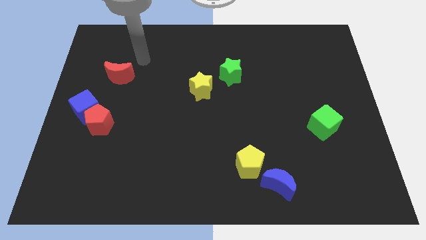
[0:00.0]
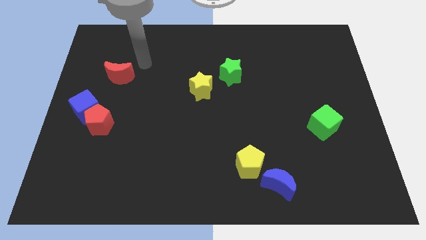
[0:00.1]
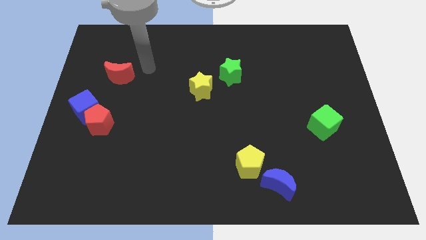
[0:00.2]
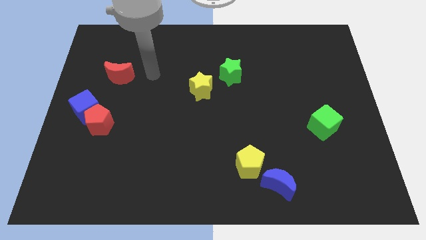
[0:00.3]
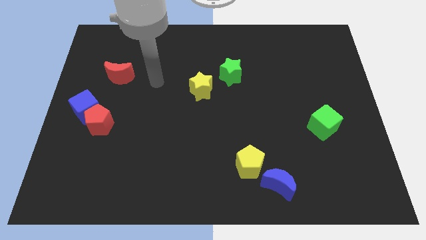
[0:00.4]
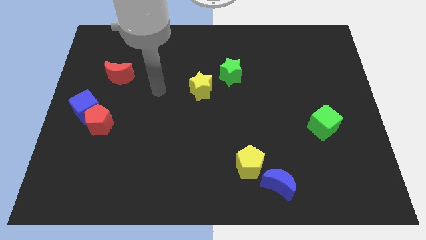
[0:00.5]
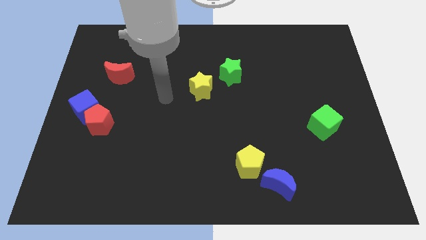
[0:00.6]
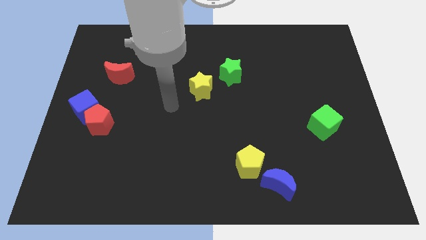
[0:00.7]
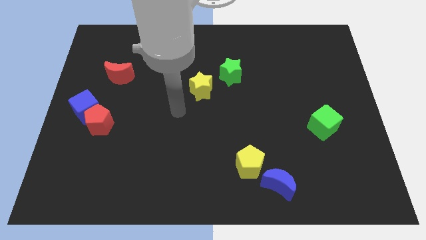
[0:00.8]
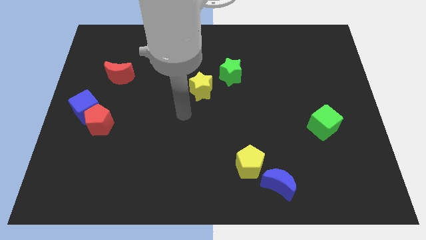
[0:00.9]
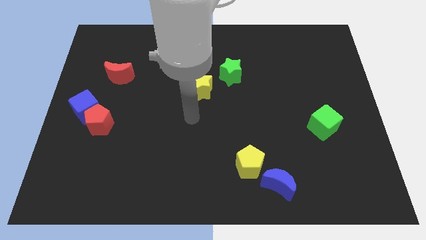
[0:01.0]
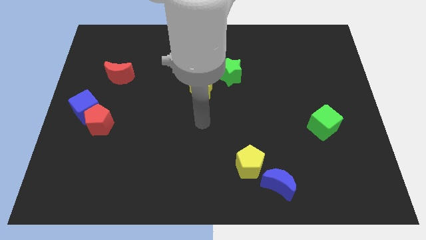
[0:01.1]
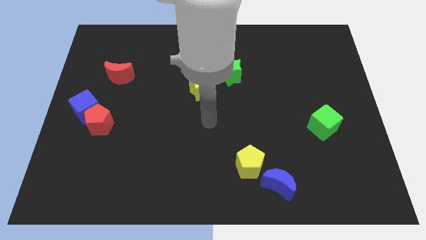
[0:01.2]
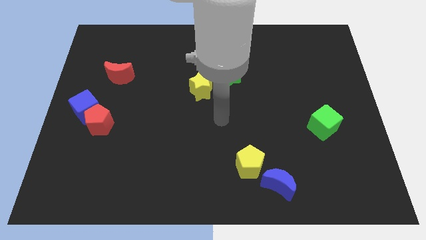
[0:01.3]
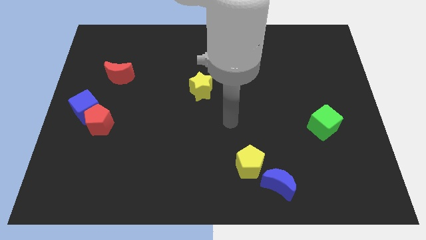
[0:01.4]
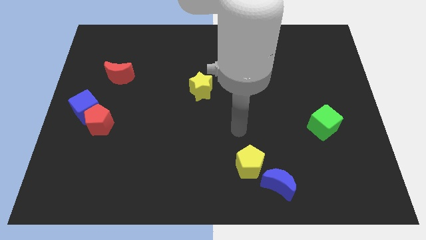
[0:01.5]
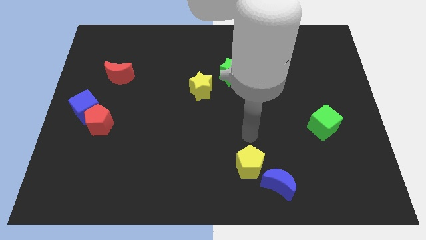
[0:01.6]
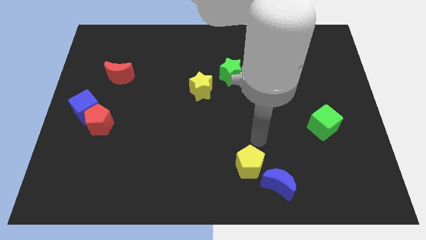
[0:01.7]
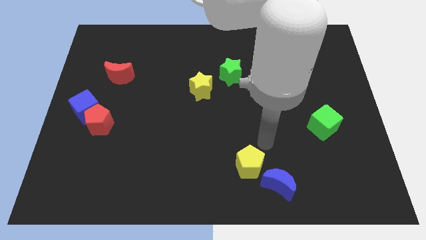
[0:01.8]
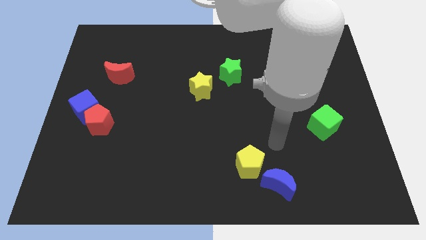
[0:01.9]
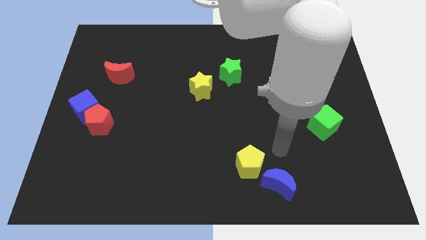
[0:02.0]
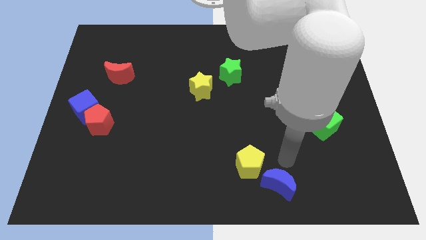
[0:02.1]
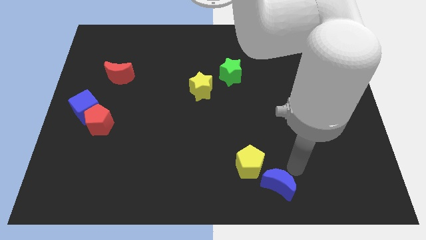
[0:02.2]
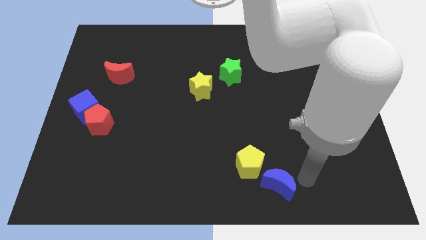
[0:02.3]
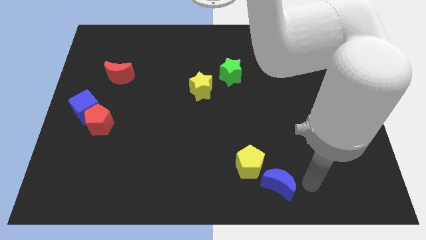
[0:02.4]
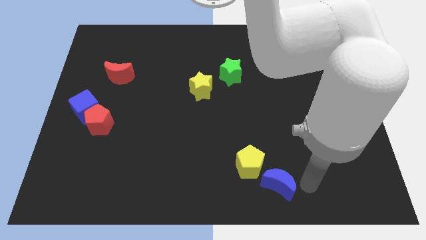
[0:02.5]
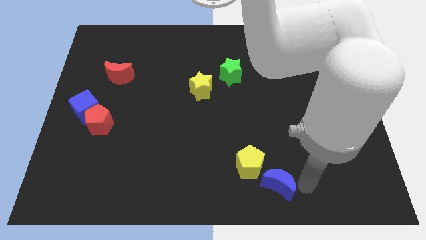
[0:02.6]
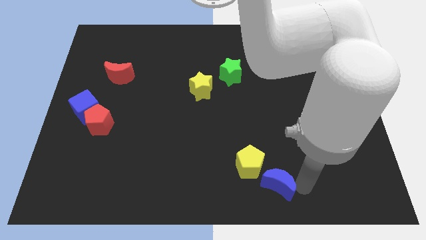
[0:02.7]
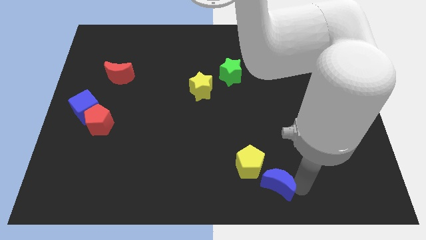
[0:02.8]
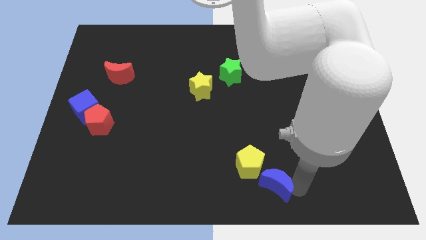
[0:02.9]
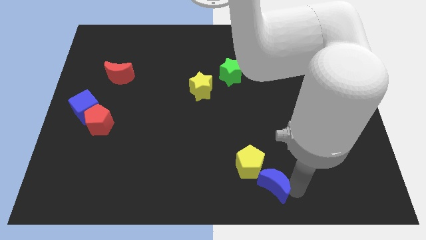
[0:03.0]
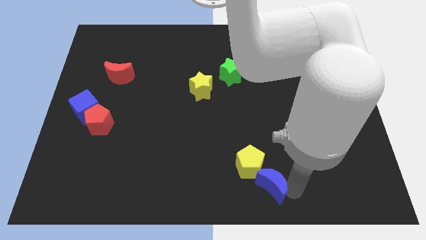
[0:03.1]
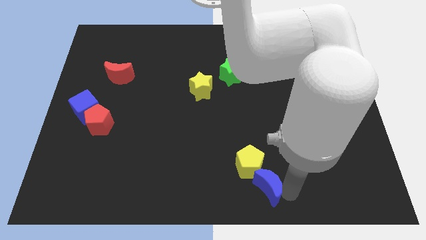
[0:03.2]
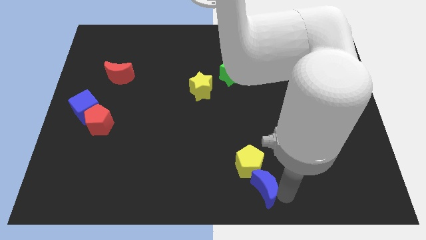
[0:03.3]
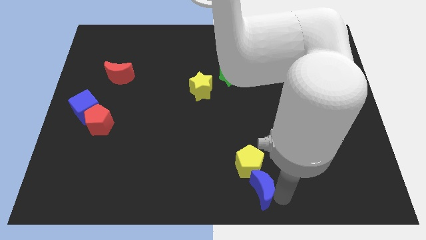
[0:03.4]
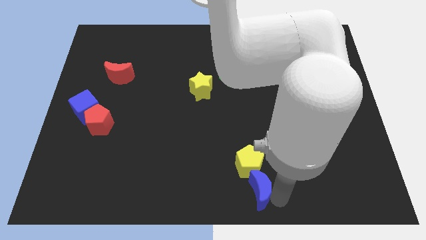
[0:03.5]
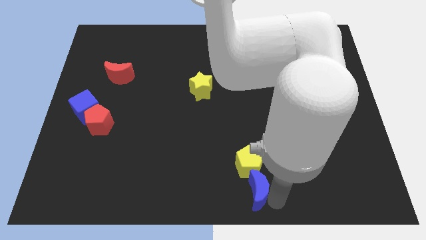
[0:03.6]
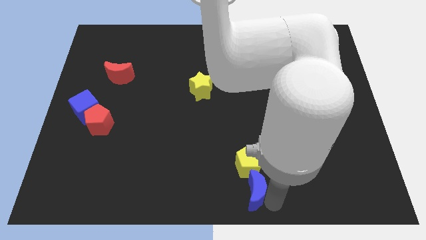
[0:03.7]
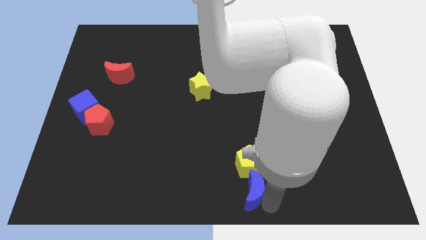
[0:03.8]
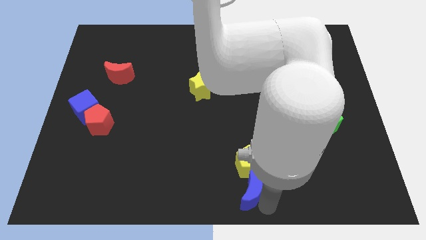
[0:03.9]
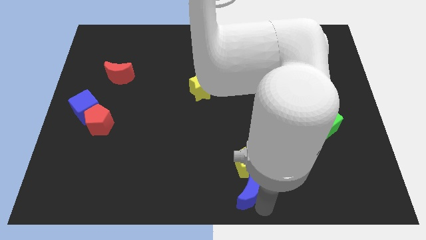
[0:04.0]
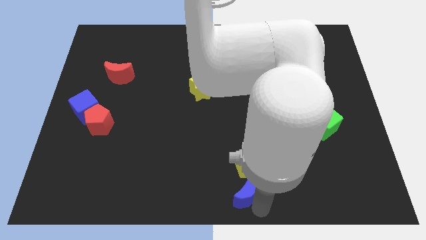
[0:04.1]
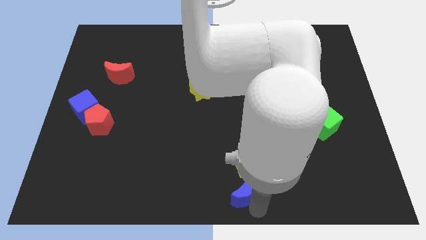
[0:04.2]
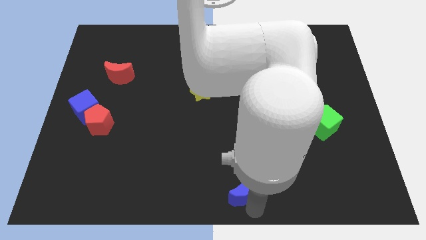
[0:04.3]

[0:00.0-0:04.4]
push the blue moon somewhat left

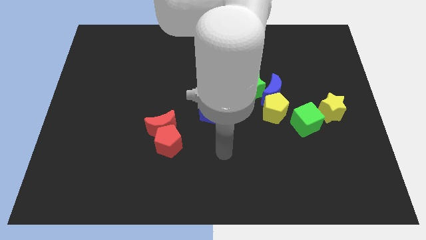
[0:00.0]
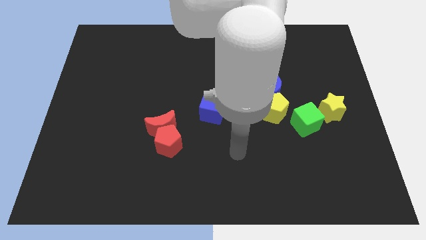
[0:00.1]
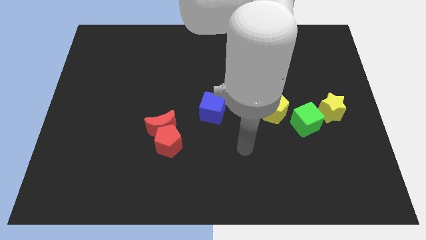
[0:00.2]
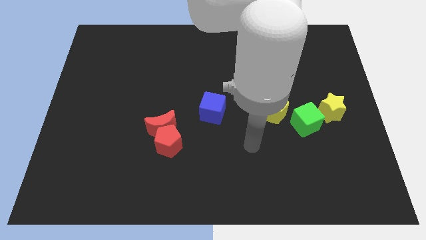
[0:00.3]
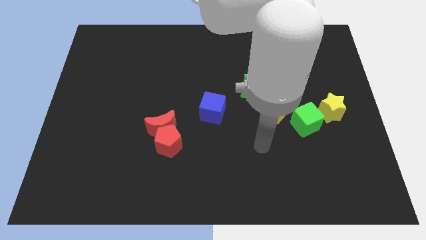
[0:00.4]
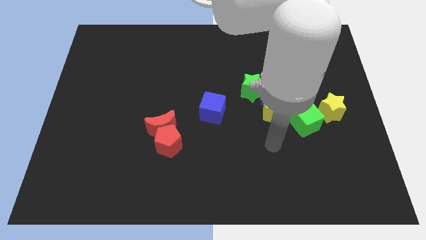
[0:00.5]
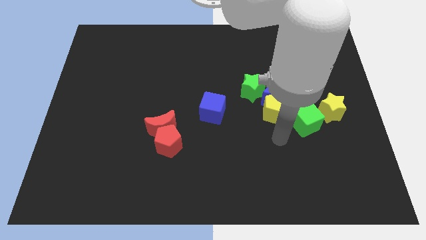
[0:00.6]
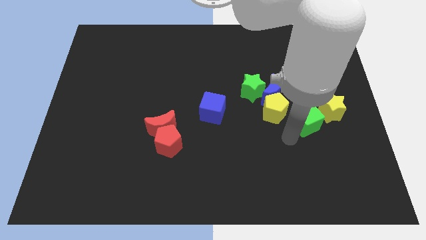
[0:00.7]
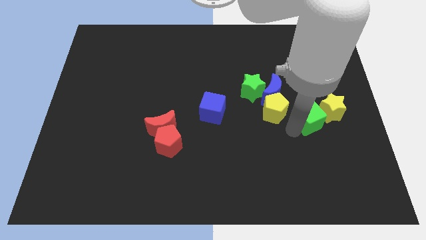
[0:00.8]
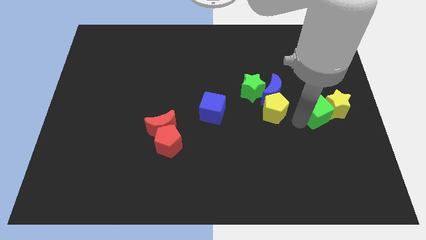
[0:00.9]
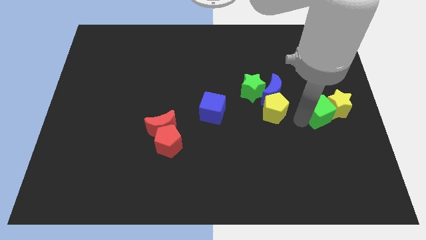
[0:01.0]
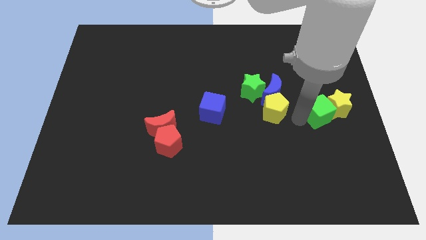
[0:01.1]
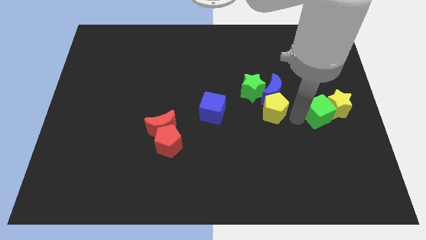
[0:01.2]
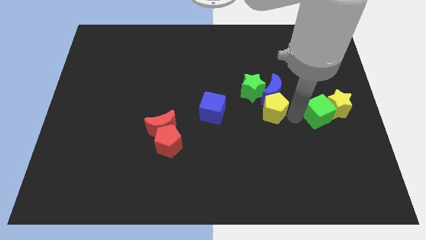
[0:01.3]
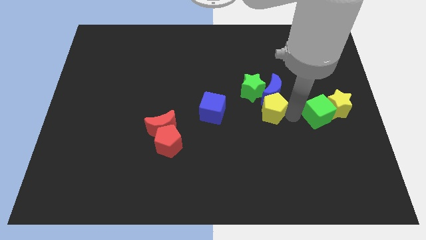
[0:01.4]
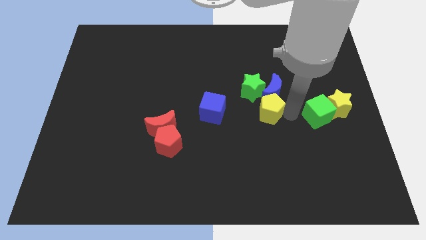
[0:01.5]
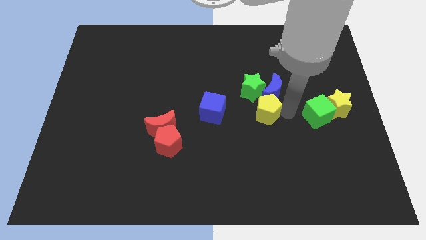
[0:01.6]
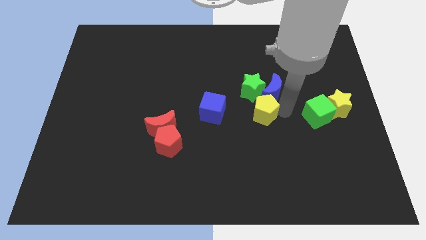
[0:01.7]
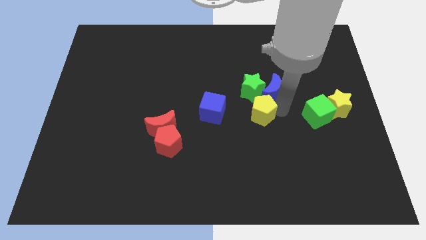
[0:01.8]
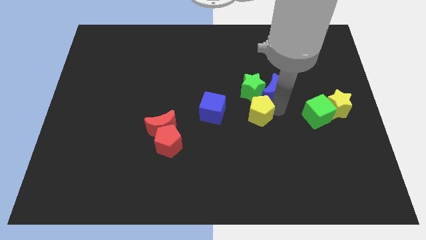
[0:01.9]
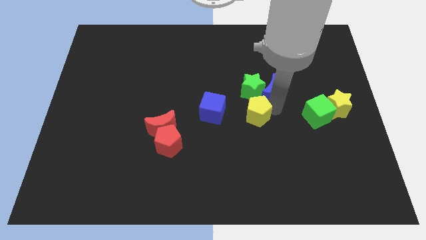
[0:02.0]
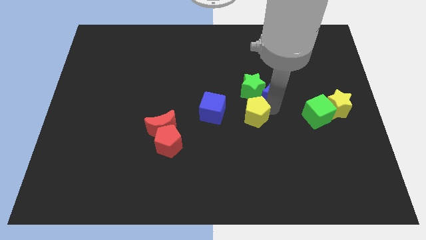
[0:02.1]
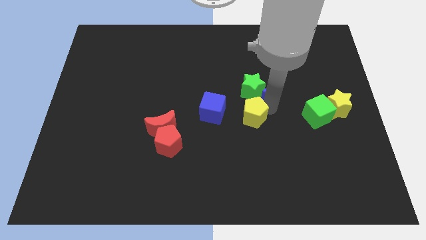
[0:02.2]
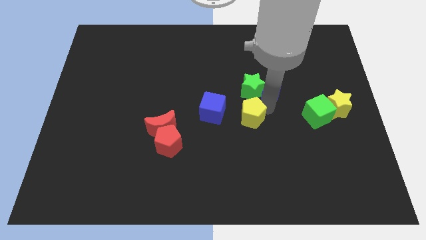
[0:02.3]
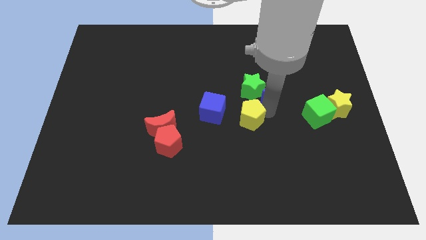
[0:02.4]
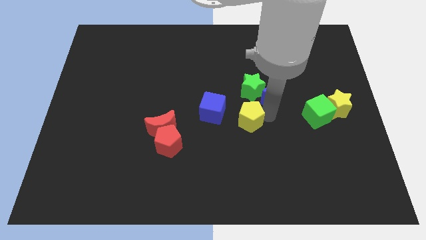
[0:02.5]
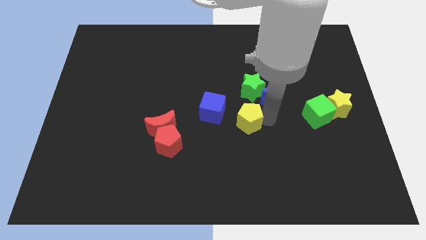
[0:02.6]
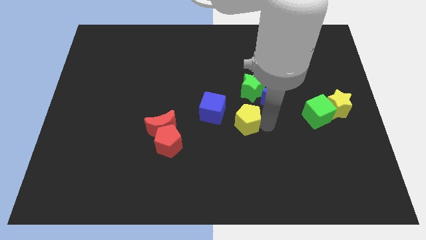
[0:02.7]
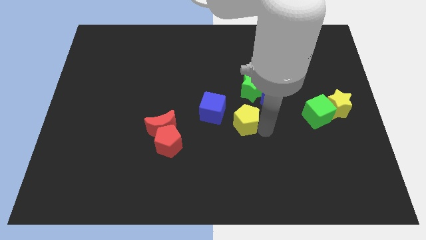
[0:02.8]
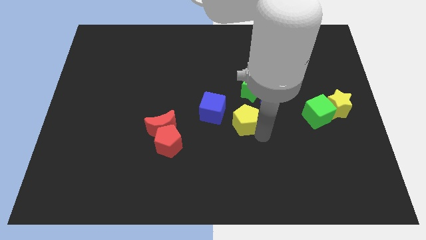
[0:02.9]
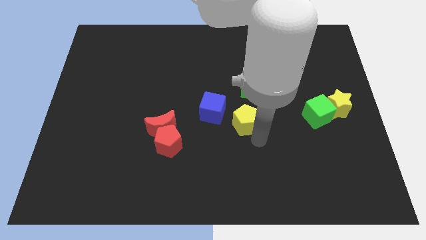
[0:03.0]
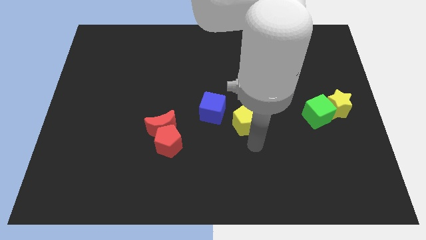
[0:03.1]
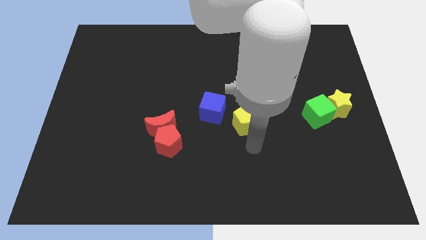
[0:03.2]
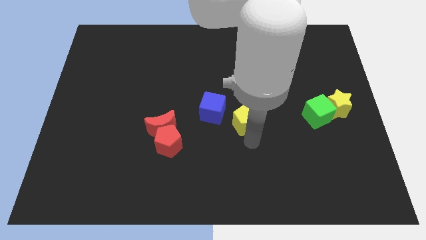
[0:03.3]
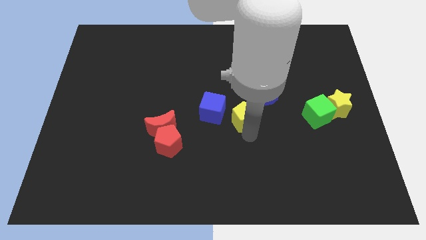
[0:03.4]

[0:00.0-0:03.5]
slide the yellow pentagon left a little bit

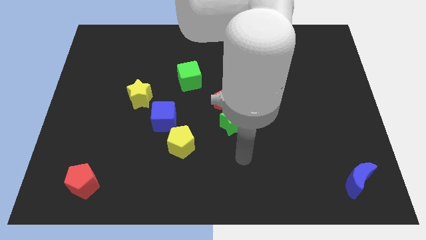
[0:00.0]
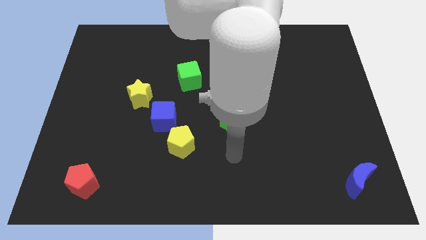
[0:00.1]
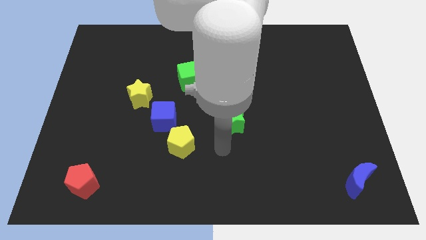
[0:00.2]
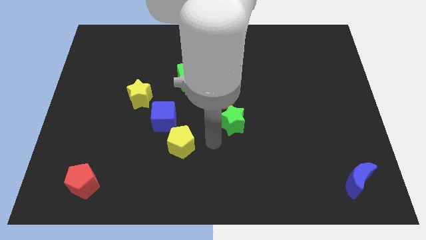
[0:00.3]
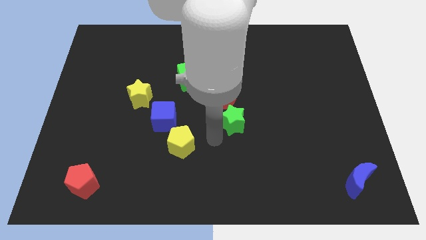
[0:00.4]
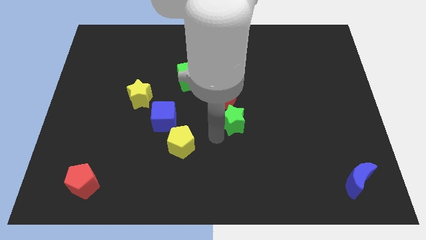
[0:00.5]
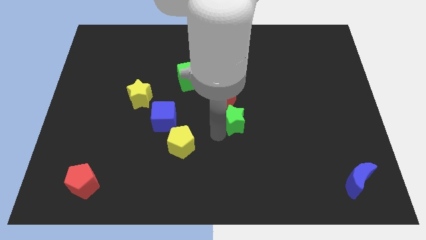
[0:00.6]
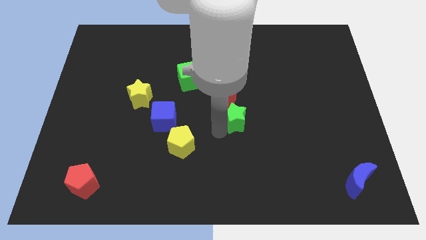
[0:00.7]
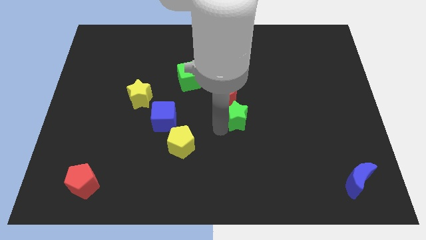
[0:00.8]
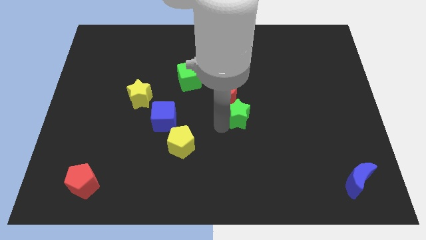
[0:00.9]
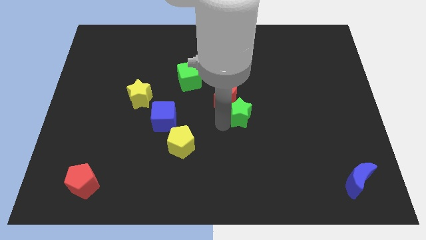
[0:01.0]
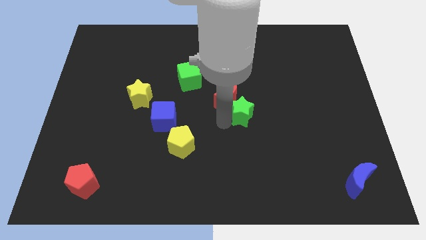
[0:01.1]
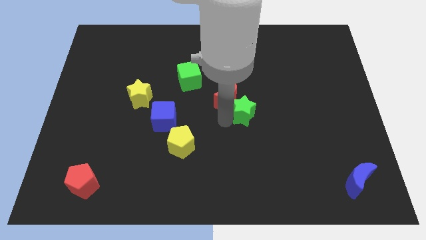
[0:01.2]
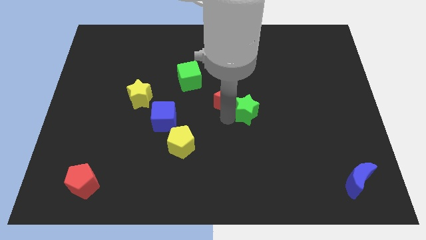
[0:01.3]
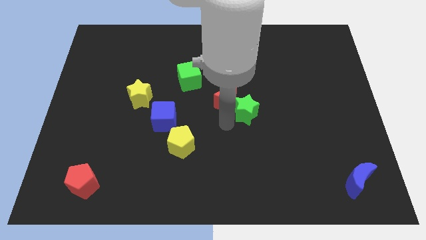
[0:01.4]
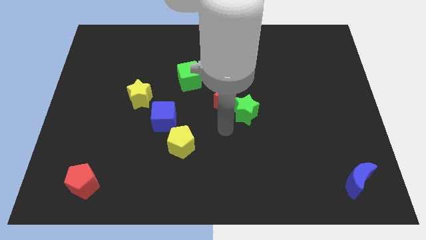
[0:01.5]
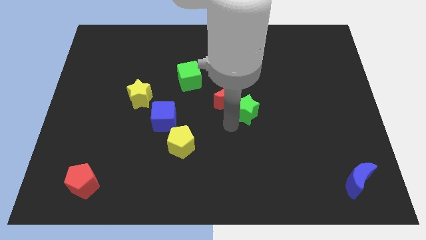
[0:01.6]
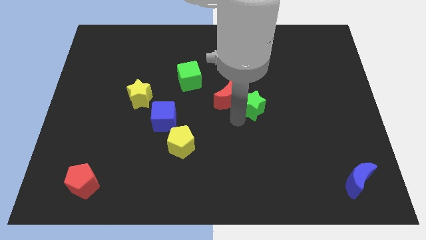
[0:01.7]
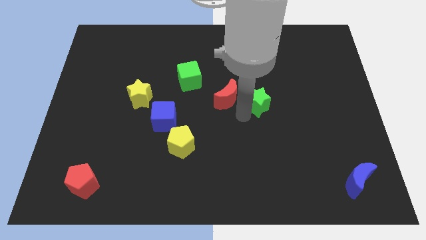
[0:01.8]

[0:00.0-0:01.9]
slightly move the green star up and to the right
